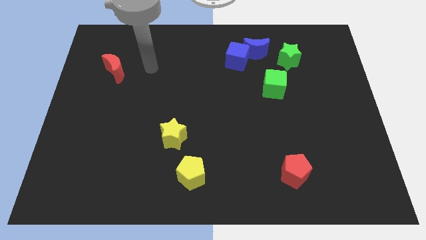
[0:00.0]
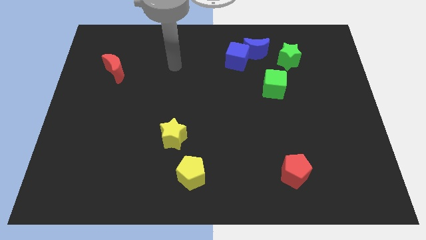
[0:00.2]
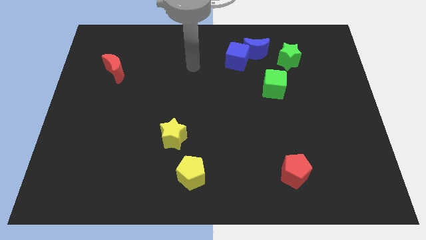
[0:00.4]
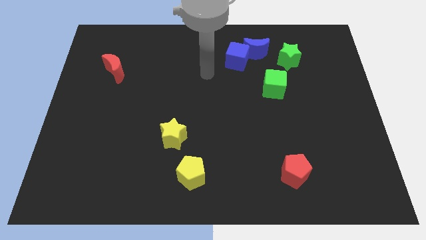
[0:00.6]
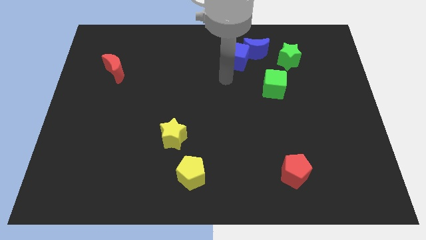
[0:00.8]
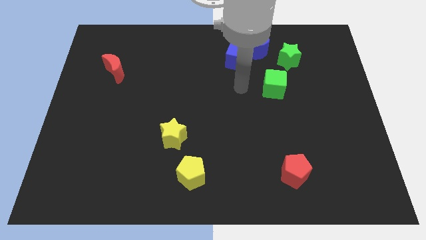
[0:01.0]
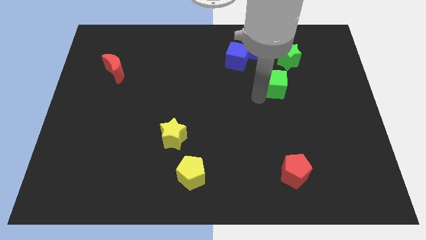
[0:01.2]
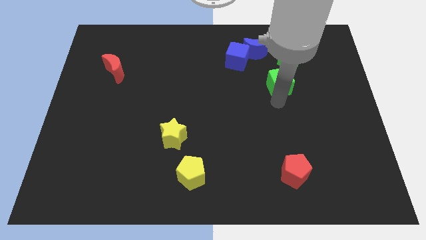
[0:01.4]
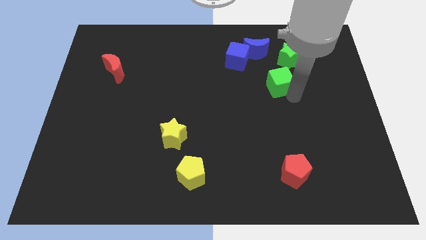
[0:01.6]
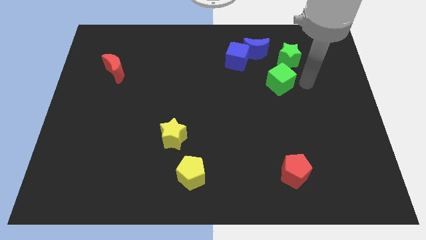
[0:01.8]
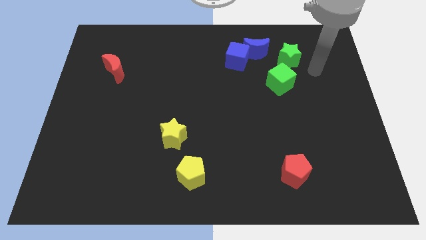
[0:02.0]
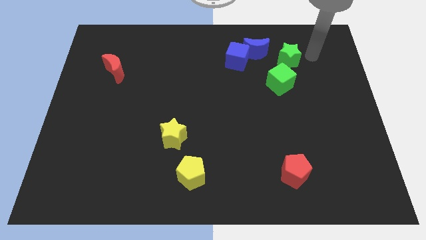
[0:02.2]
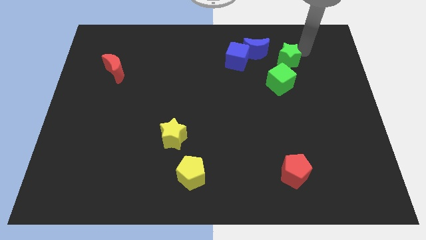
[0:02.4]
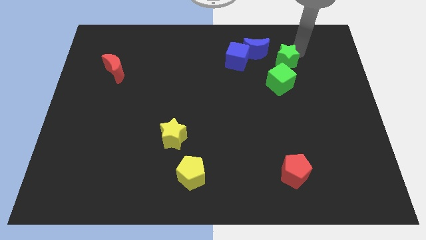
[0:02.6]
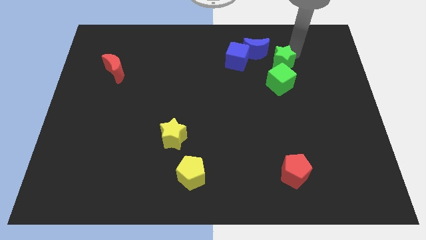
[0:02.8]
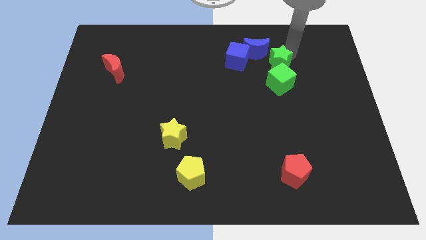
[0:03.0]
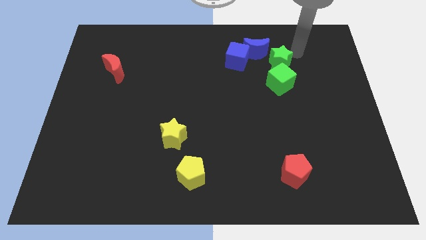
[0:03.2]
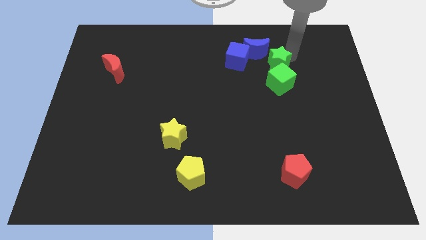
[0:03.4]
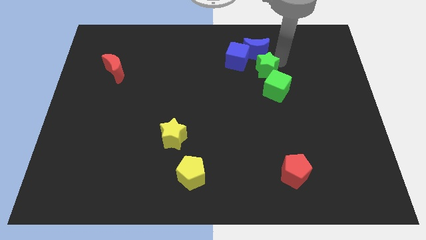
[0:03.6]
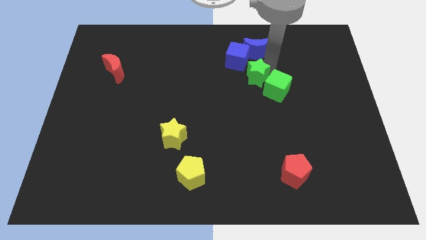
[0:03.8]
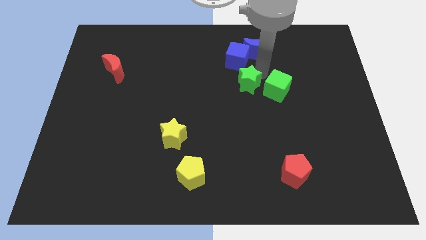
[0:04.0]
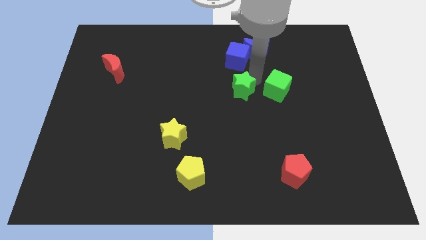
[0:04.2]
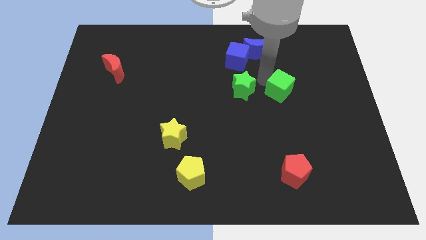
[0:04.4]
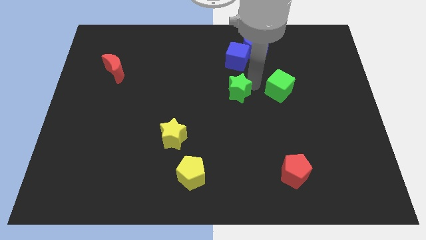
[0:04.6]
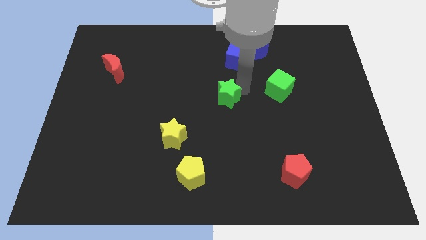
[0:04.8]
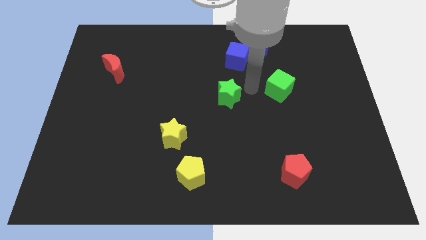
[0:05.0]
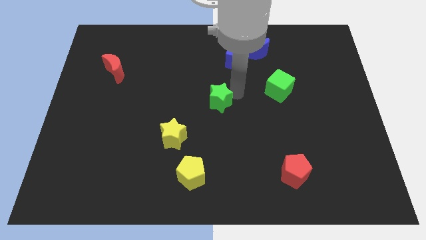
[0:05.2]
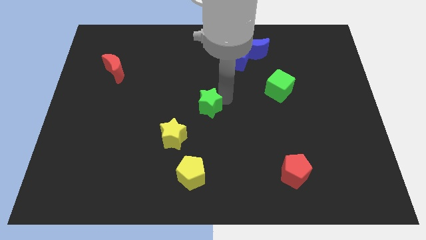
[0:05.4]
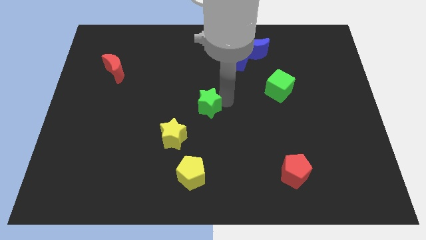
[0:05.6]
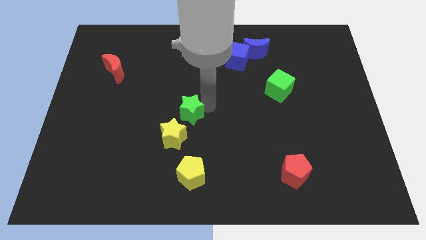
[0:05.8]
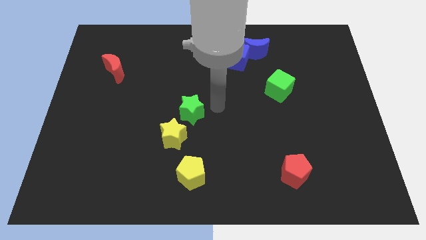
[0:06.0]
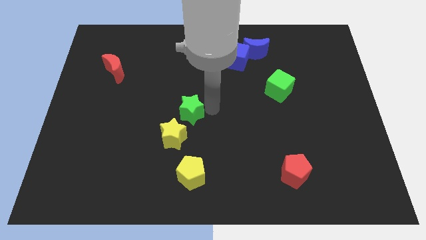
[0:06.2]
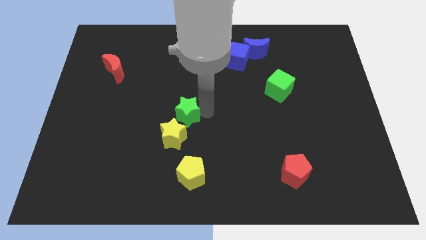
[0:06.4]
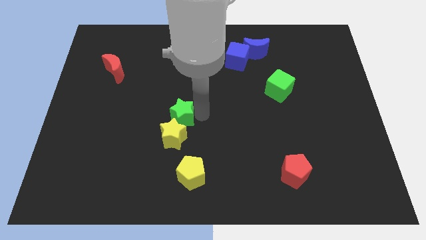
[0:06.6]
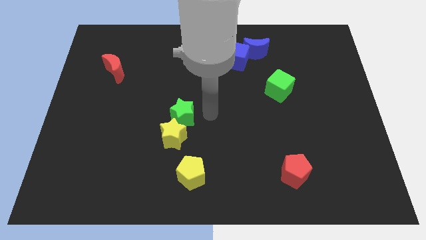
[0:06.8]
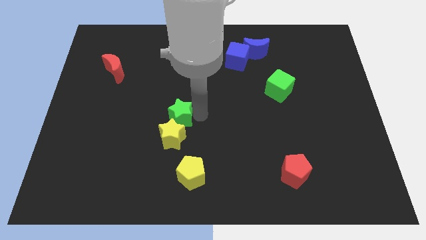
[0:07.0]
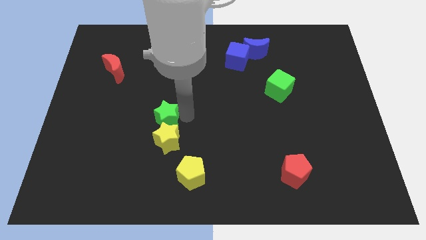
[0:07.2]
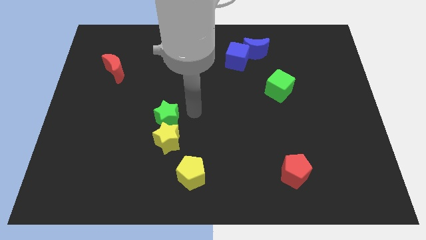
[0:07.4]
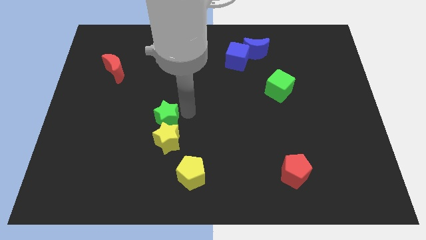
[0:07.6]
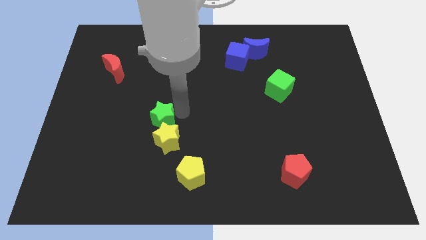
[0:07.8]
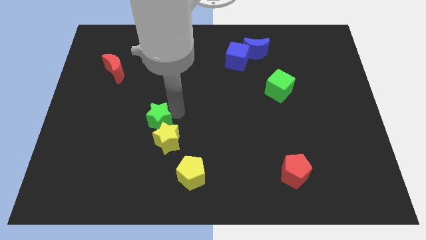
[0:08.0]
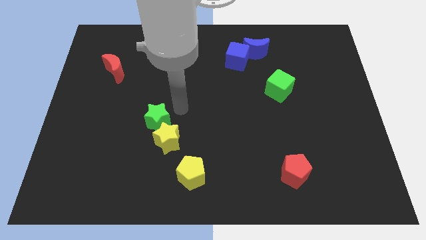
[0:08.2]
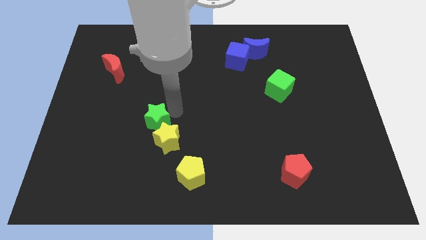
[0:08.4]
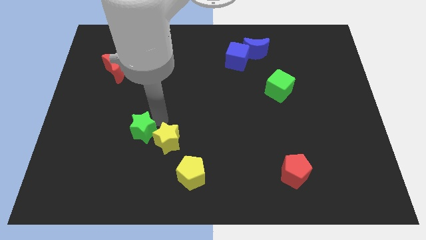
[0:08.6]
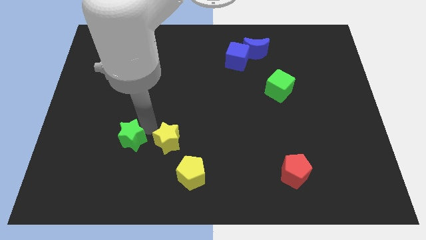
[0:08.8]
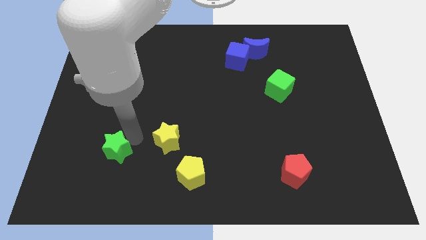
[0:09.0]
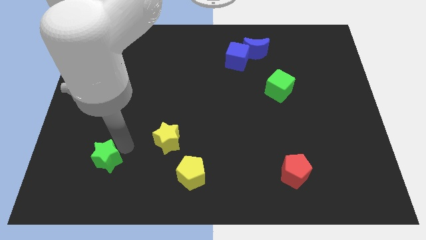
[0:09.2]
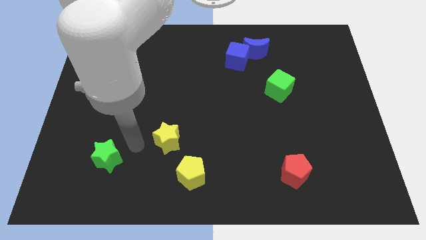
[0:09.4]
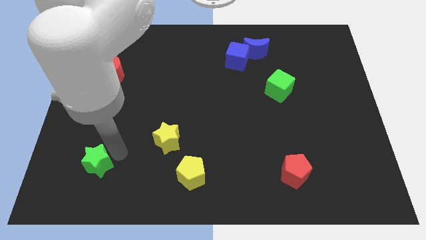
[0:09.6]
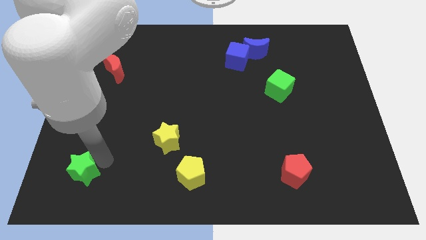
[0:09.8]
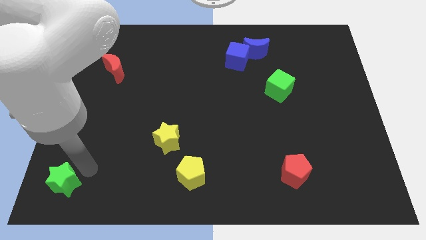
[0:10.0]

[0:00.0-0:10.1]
push the green star to the bottom left corner

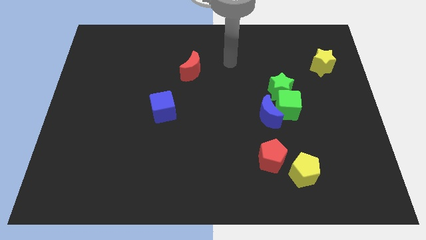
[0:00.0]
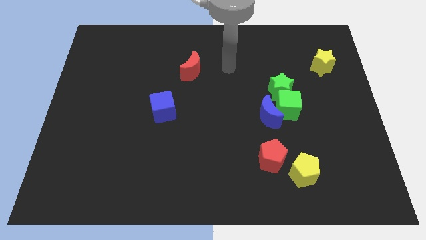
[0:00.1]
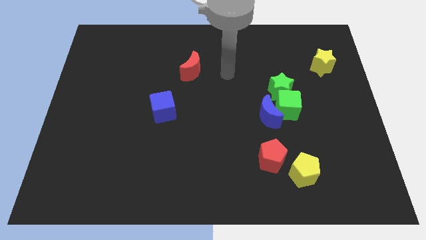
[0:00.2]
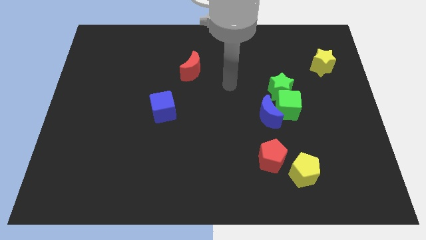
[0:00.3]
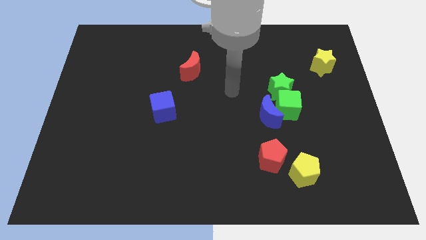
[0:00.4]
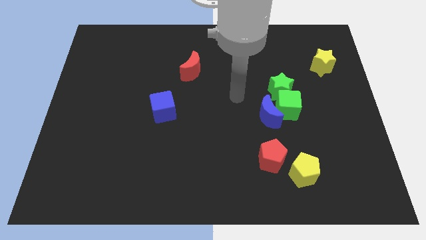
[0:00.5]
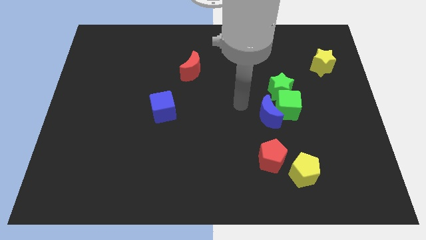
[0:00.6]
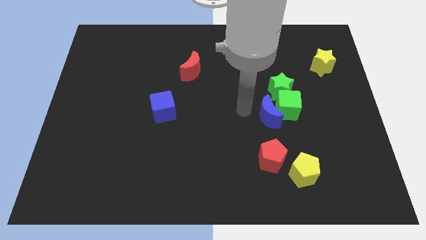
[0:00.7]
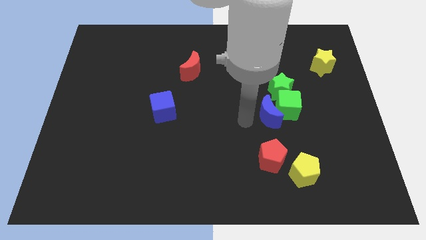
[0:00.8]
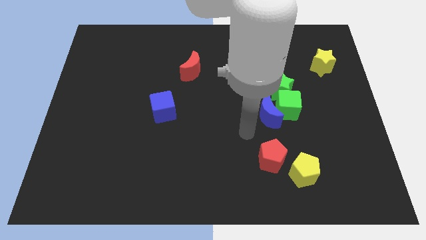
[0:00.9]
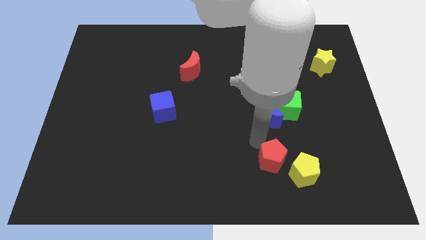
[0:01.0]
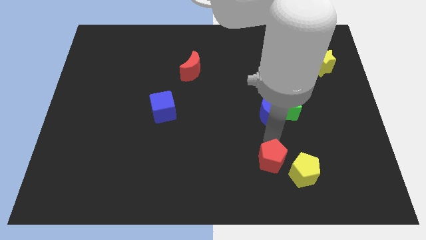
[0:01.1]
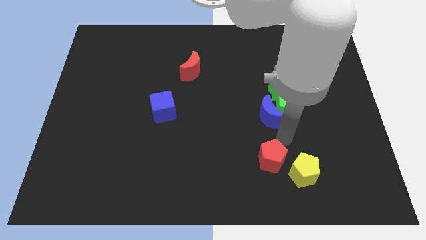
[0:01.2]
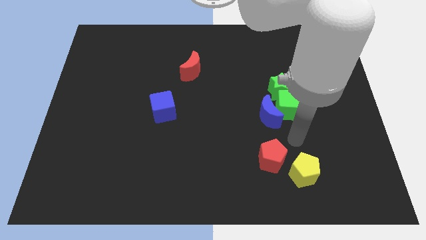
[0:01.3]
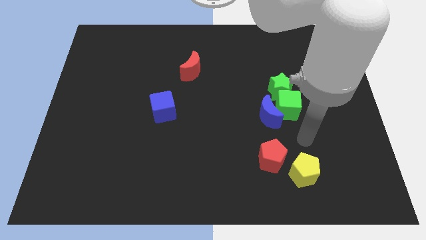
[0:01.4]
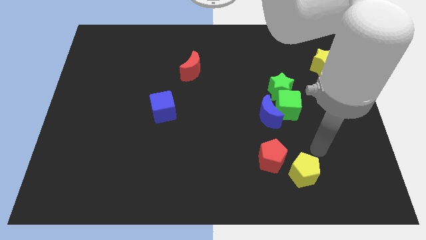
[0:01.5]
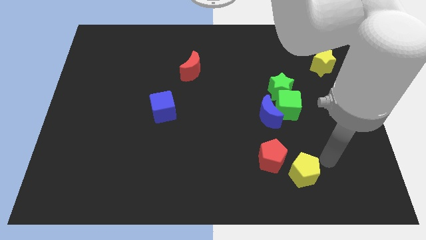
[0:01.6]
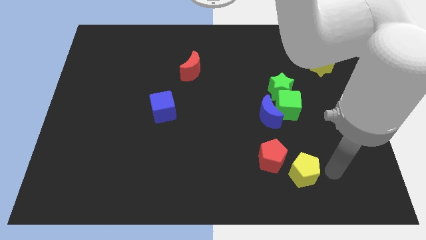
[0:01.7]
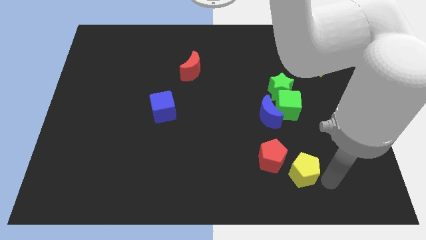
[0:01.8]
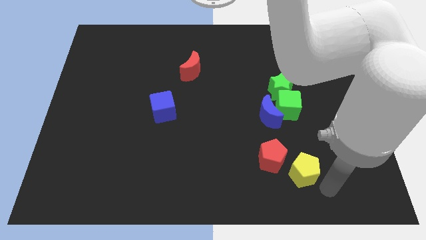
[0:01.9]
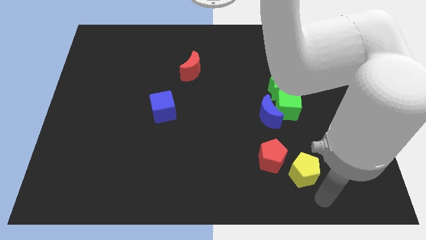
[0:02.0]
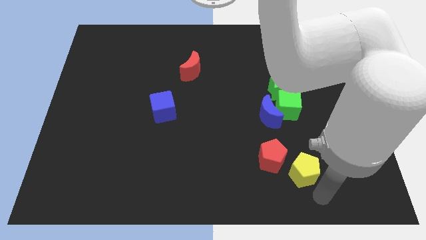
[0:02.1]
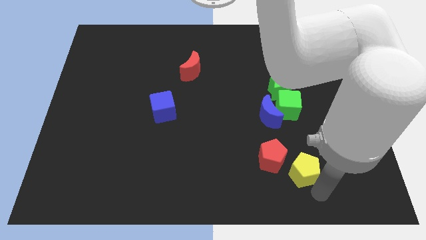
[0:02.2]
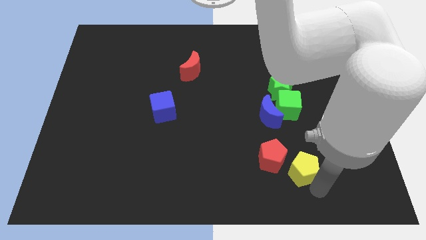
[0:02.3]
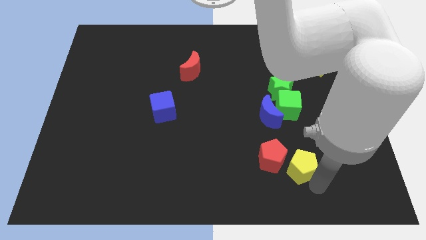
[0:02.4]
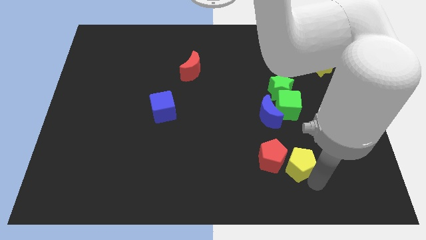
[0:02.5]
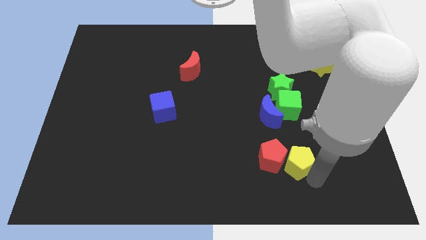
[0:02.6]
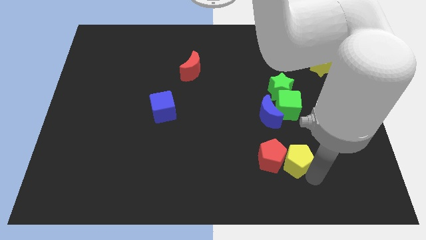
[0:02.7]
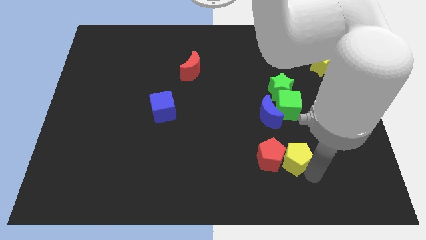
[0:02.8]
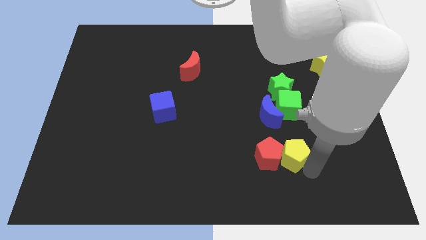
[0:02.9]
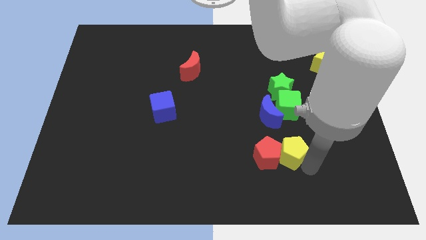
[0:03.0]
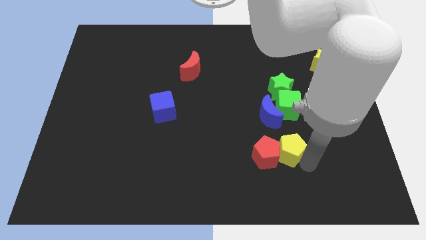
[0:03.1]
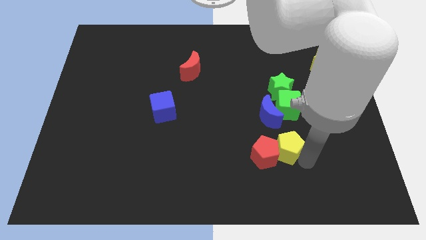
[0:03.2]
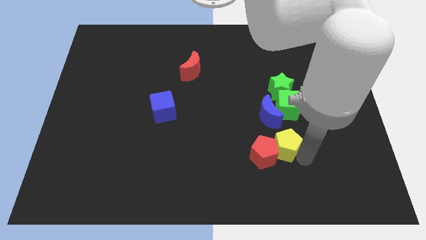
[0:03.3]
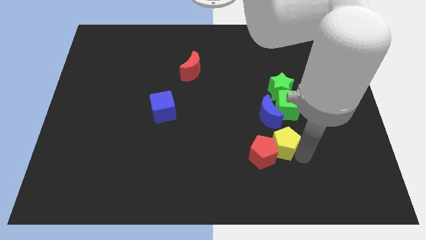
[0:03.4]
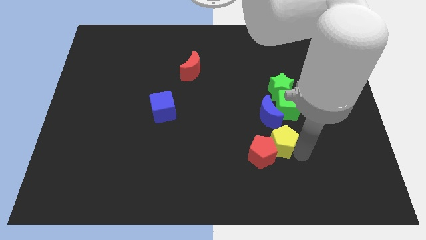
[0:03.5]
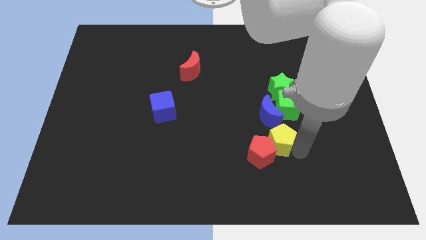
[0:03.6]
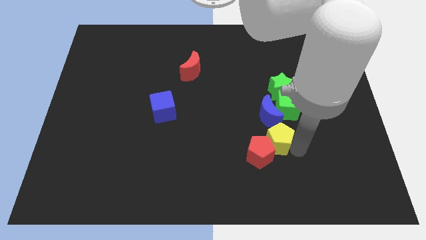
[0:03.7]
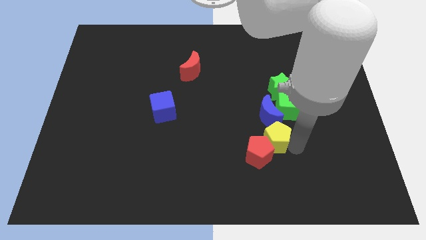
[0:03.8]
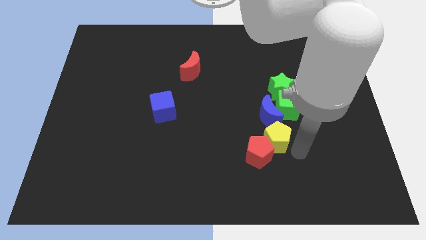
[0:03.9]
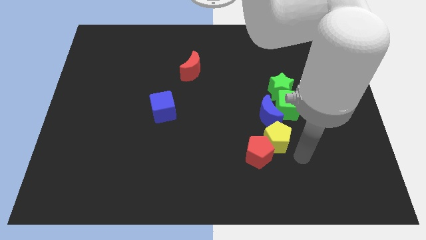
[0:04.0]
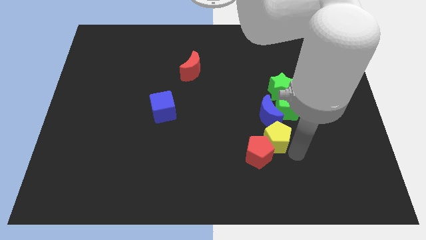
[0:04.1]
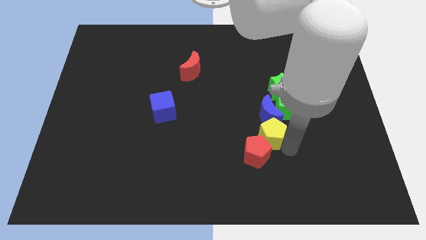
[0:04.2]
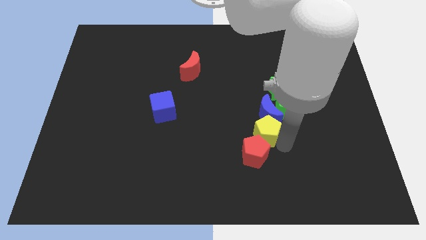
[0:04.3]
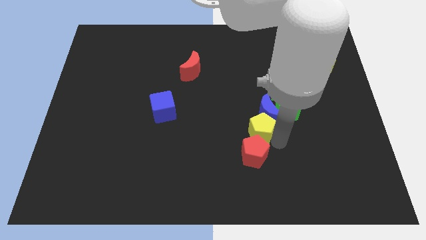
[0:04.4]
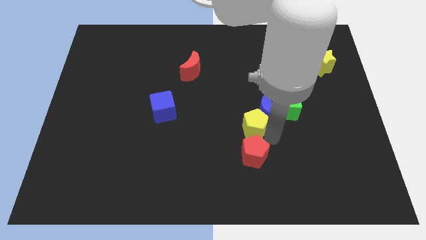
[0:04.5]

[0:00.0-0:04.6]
move the yellow pentagon to the center
